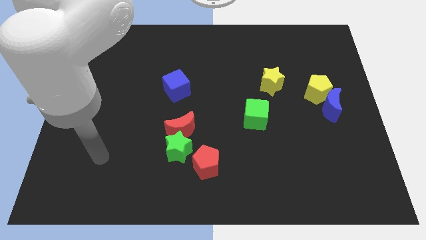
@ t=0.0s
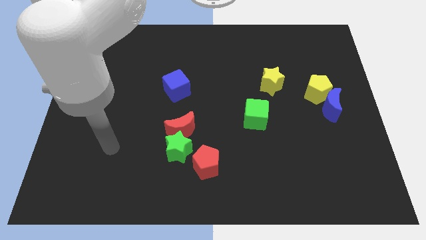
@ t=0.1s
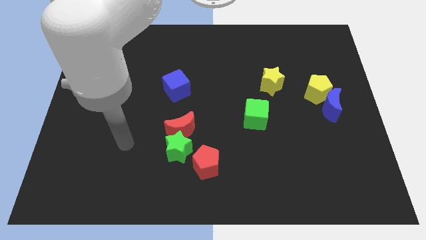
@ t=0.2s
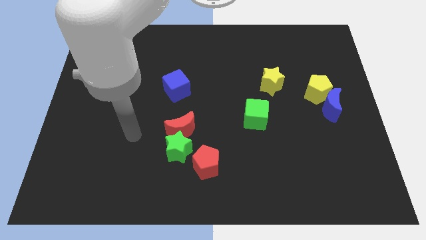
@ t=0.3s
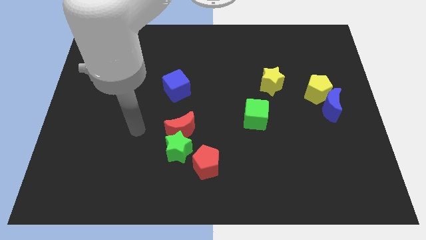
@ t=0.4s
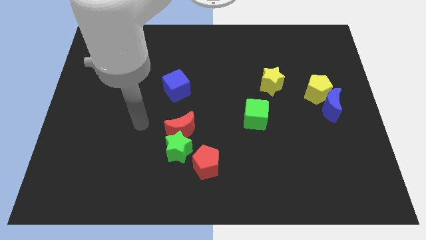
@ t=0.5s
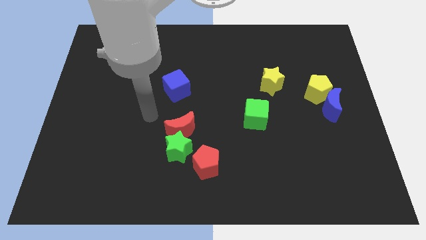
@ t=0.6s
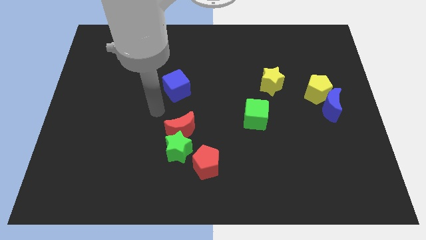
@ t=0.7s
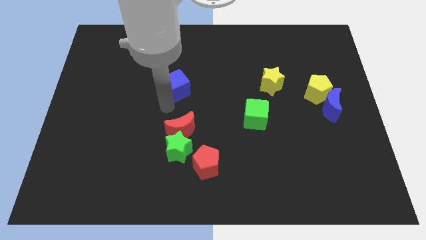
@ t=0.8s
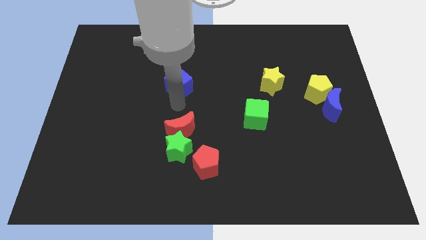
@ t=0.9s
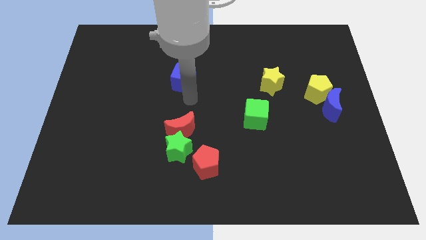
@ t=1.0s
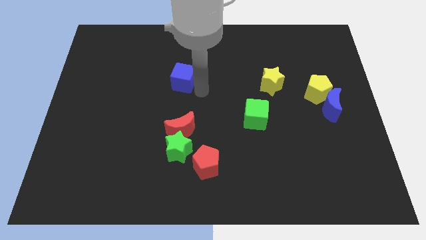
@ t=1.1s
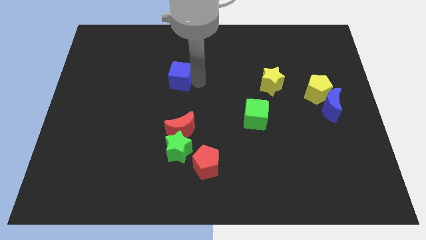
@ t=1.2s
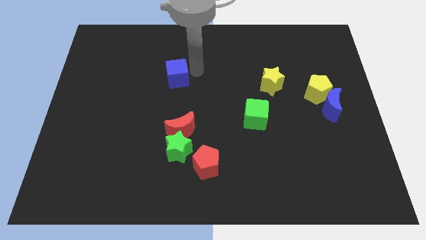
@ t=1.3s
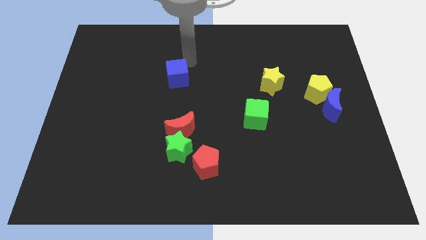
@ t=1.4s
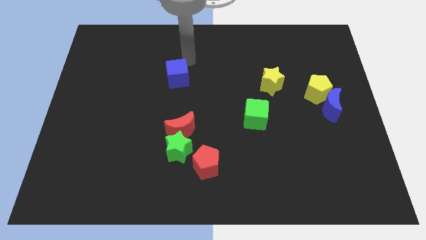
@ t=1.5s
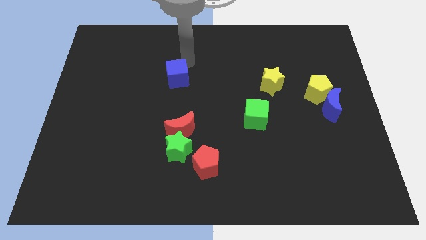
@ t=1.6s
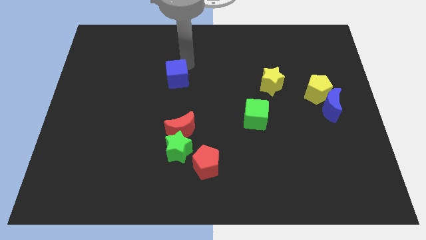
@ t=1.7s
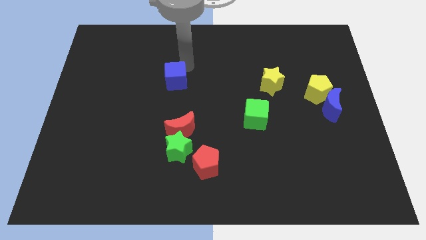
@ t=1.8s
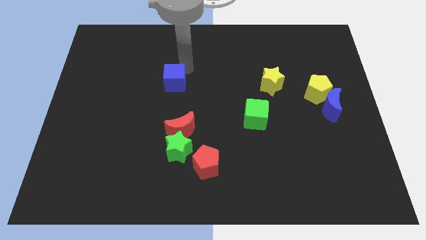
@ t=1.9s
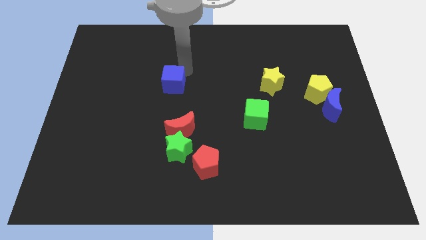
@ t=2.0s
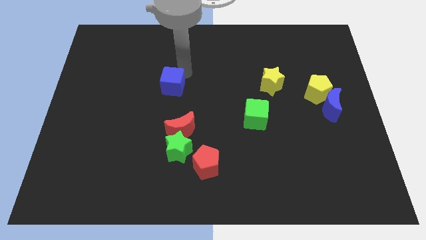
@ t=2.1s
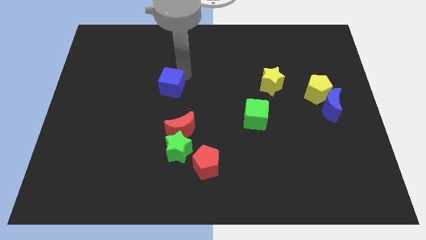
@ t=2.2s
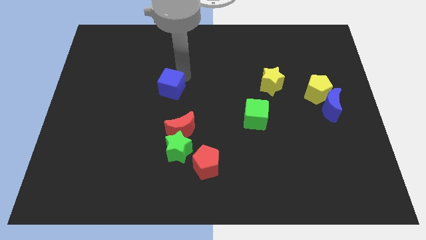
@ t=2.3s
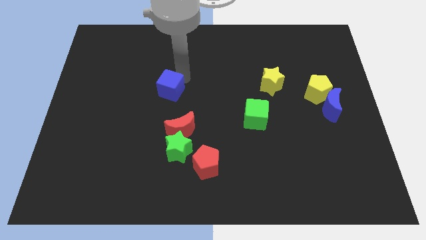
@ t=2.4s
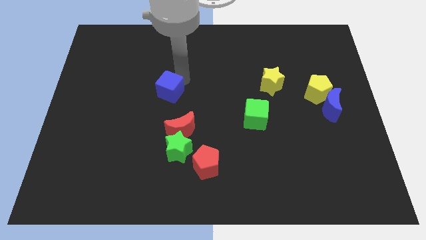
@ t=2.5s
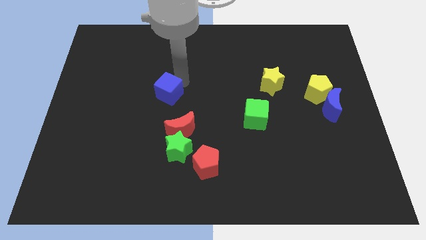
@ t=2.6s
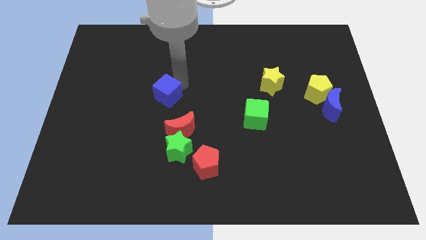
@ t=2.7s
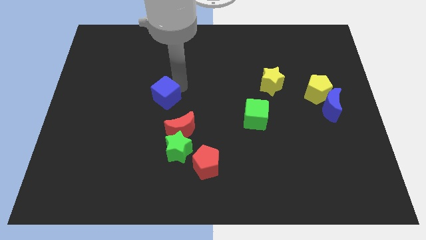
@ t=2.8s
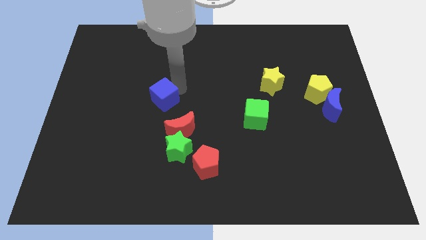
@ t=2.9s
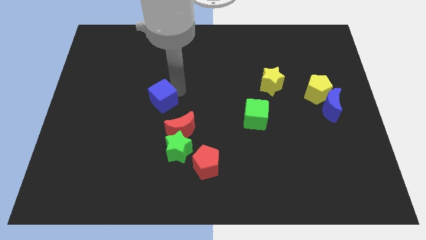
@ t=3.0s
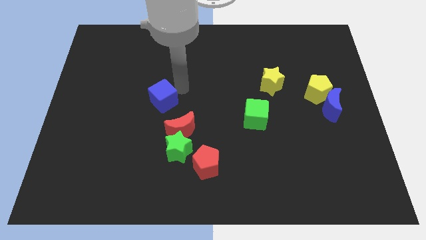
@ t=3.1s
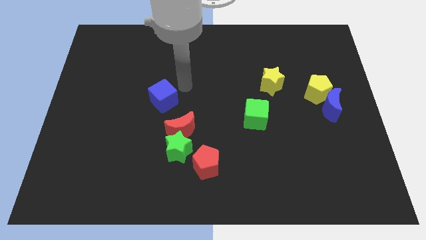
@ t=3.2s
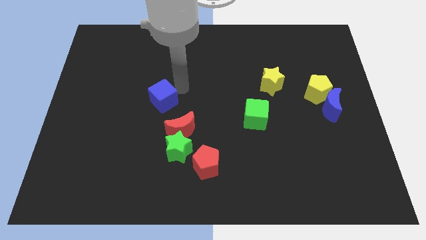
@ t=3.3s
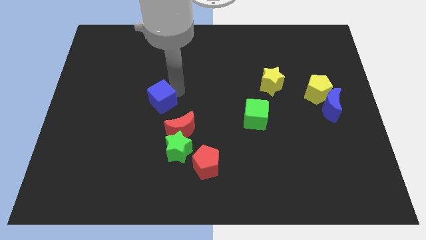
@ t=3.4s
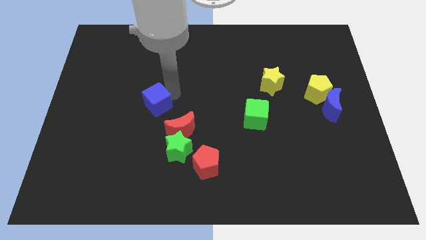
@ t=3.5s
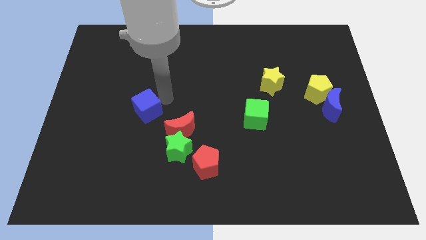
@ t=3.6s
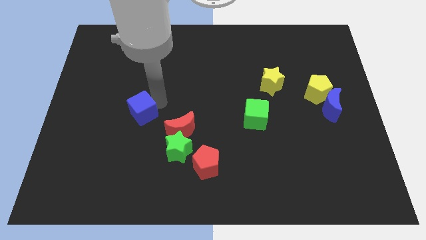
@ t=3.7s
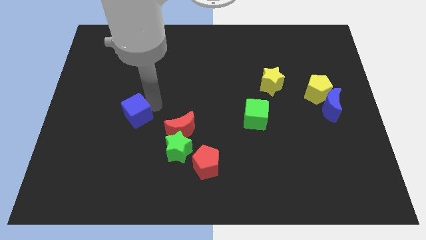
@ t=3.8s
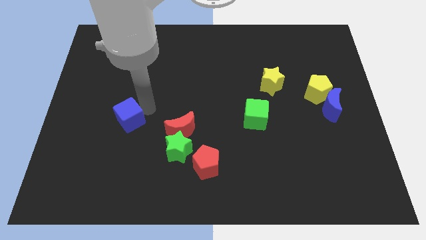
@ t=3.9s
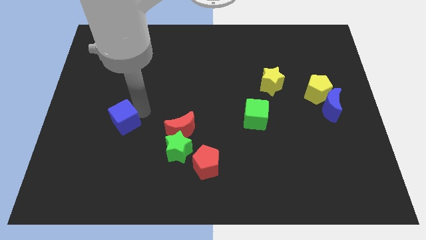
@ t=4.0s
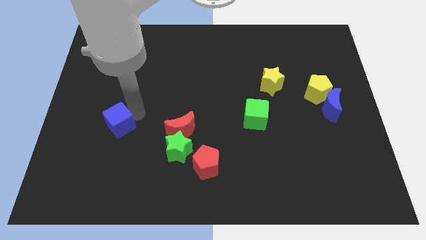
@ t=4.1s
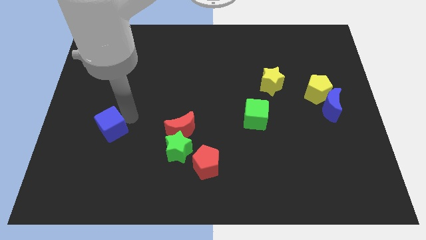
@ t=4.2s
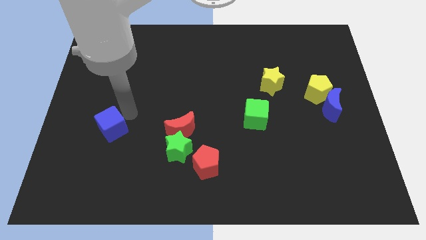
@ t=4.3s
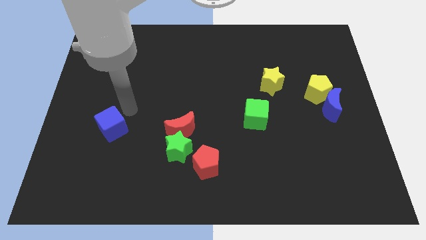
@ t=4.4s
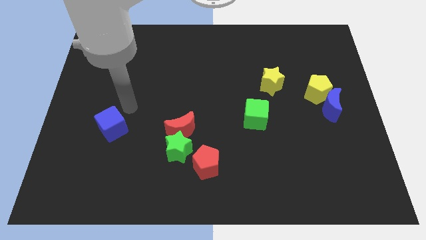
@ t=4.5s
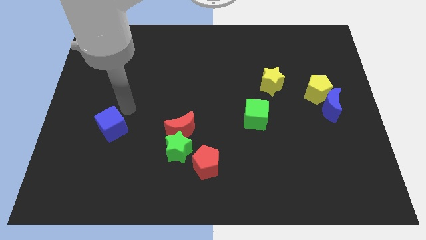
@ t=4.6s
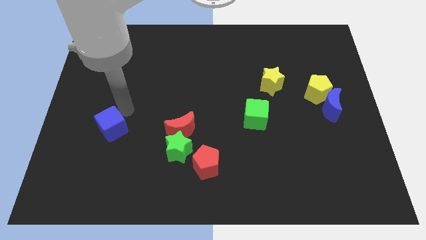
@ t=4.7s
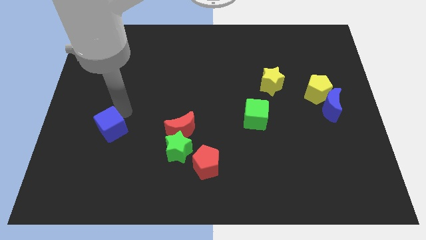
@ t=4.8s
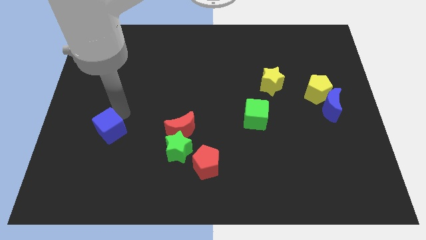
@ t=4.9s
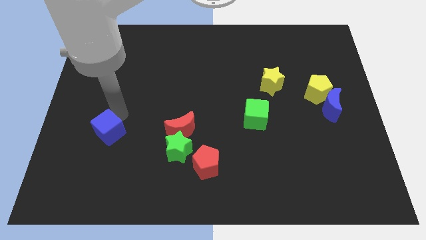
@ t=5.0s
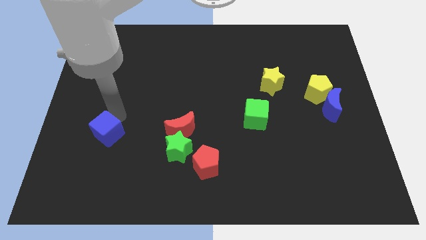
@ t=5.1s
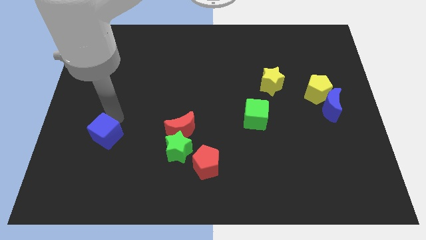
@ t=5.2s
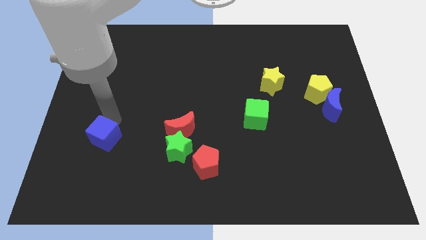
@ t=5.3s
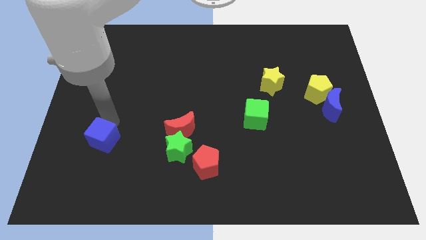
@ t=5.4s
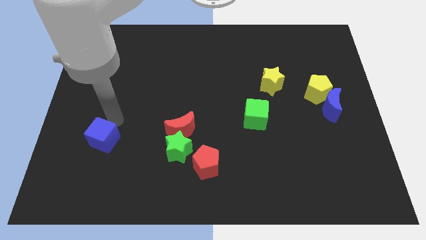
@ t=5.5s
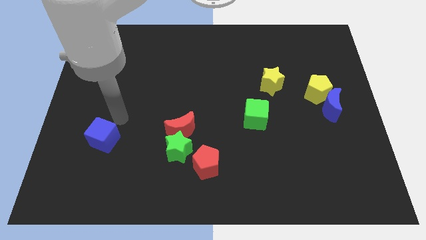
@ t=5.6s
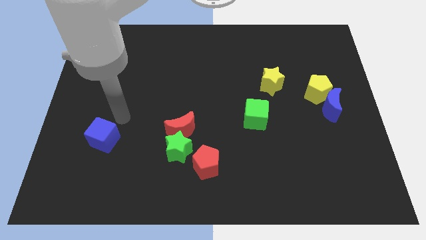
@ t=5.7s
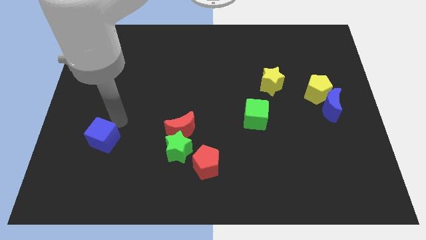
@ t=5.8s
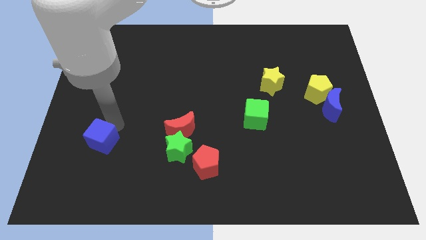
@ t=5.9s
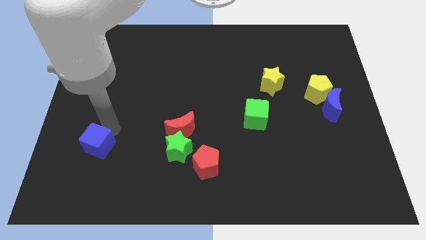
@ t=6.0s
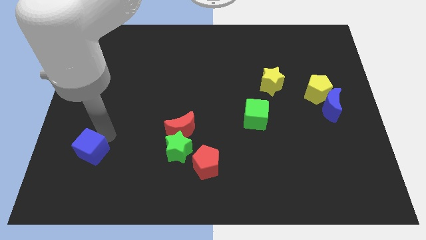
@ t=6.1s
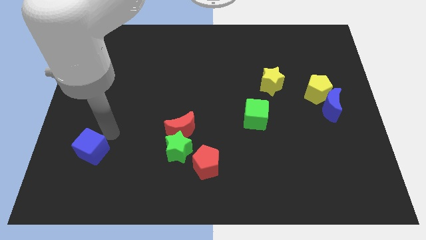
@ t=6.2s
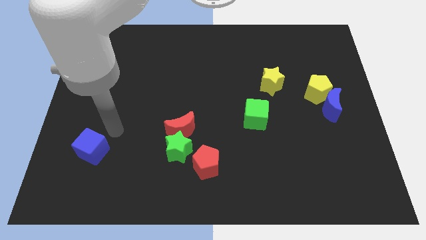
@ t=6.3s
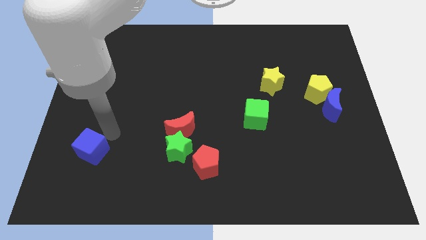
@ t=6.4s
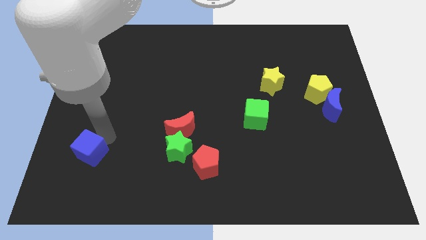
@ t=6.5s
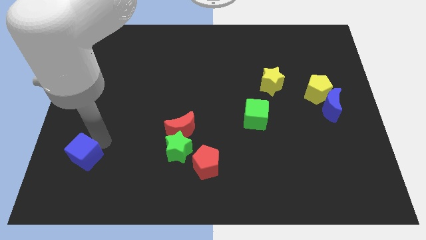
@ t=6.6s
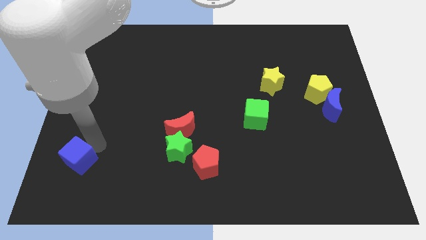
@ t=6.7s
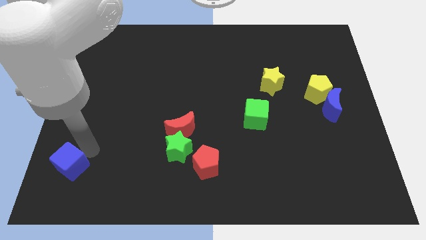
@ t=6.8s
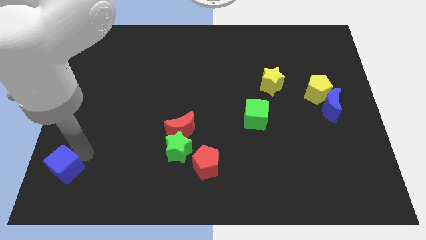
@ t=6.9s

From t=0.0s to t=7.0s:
put the blue cube to the bottom left corner

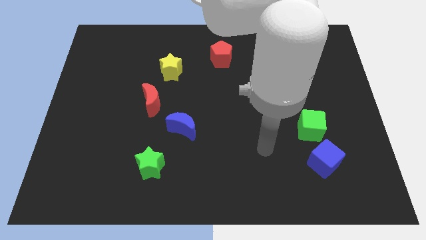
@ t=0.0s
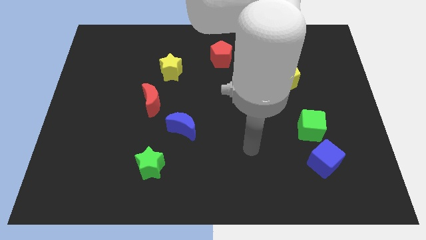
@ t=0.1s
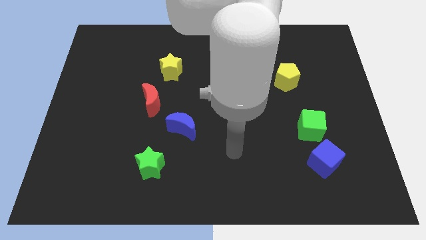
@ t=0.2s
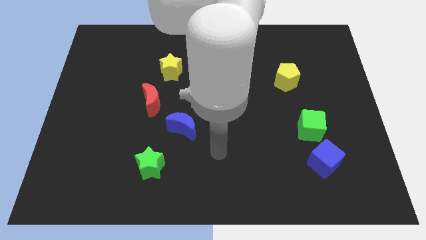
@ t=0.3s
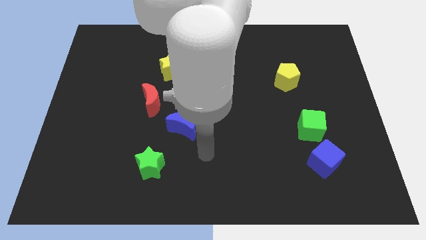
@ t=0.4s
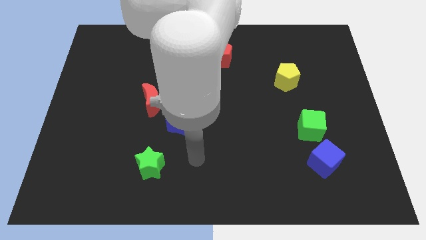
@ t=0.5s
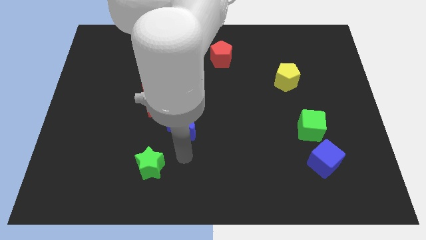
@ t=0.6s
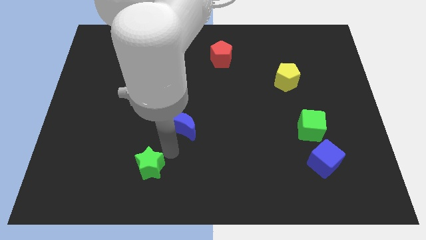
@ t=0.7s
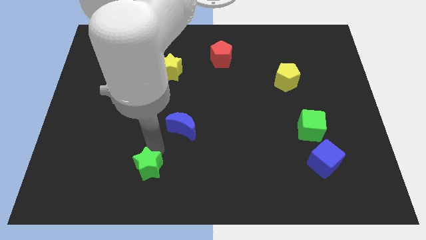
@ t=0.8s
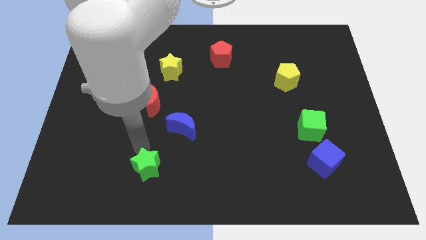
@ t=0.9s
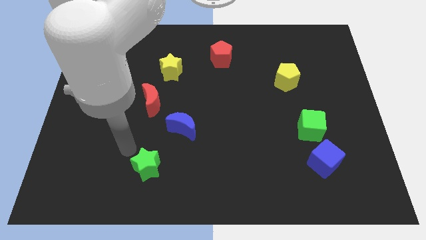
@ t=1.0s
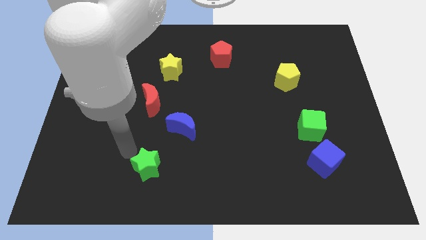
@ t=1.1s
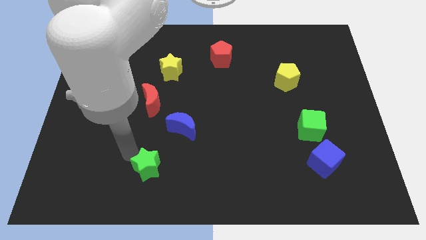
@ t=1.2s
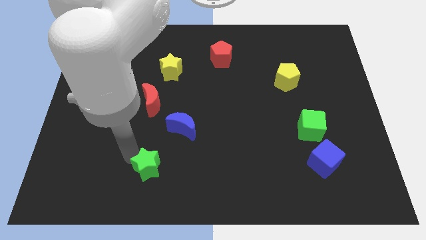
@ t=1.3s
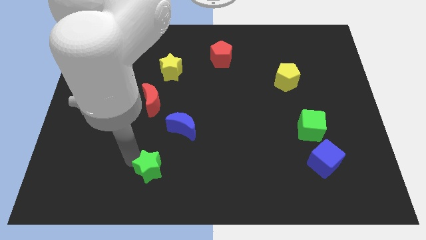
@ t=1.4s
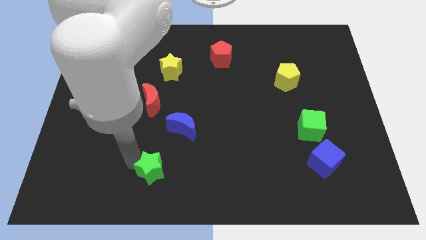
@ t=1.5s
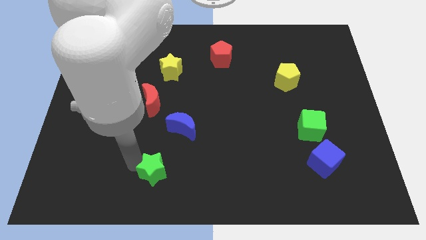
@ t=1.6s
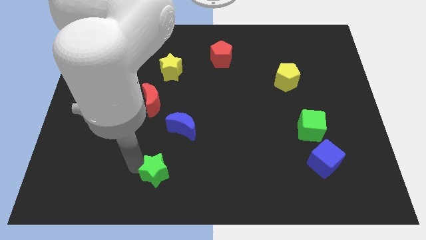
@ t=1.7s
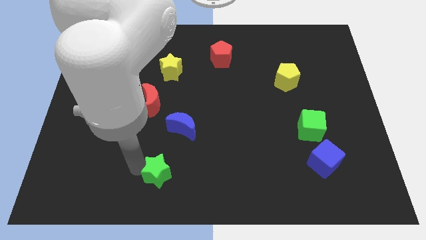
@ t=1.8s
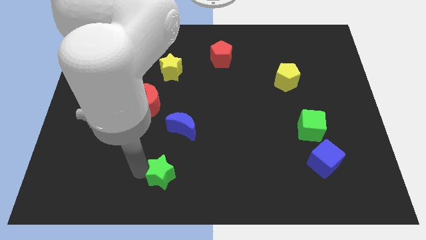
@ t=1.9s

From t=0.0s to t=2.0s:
put the green star to the bottom side
